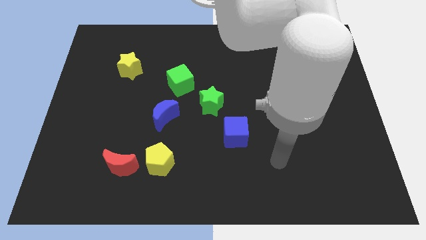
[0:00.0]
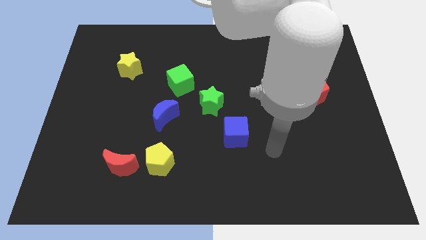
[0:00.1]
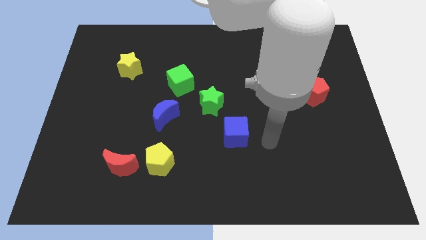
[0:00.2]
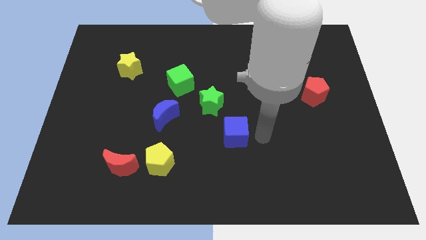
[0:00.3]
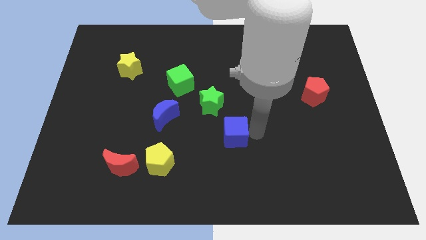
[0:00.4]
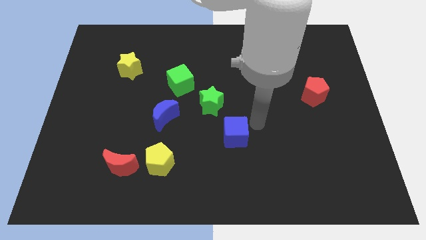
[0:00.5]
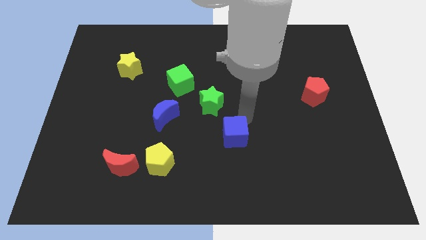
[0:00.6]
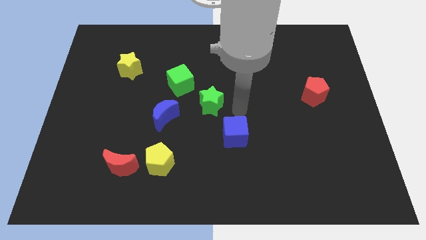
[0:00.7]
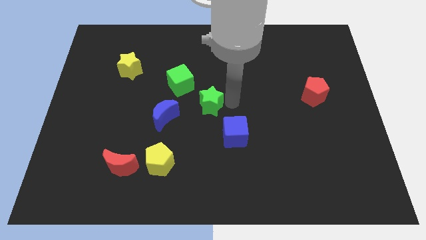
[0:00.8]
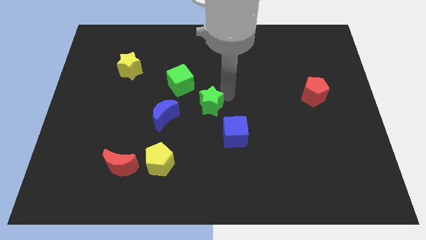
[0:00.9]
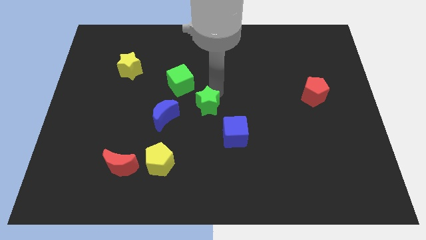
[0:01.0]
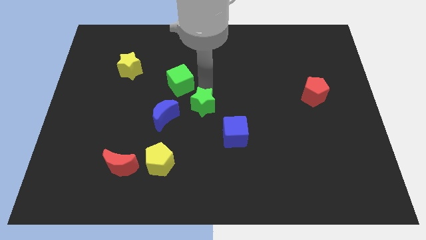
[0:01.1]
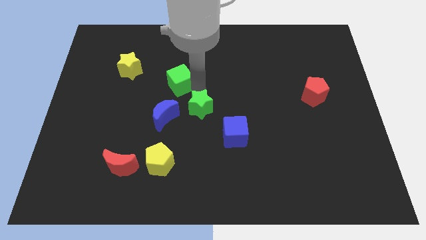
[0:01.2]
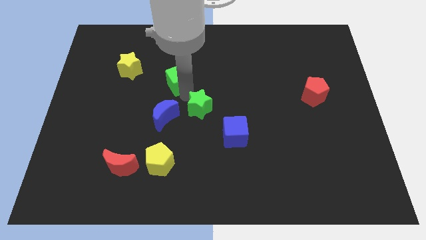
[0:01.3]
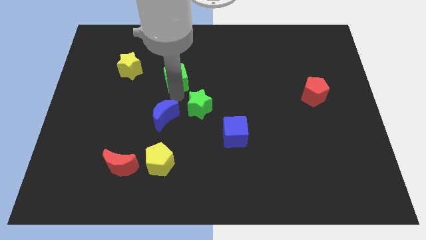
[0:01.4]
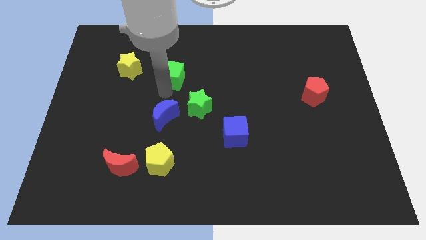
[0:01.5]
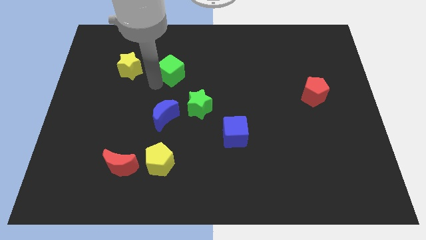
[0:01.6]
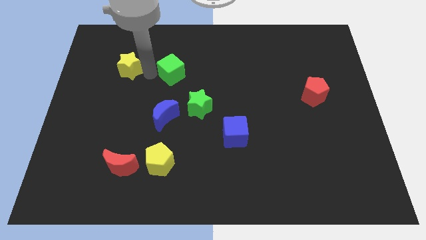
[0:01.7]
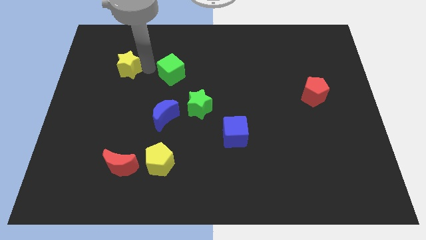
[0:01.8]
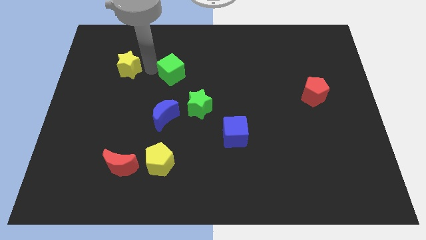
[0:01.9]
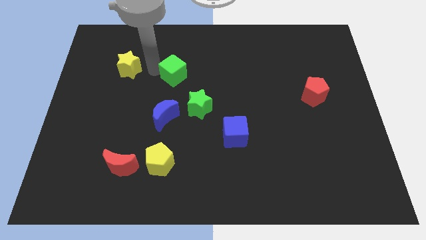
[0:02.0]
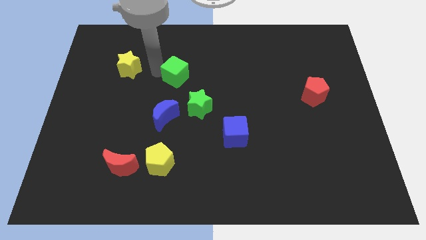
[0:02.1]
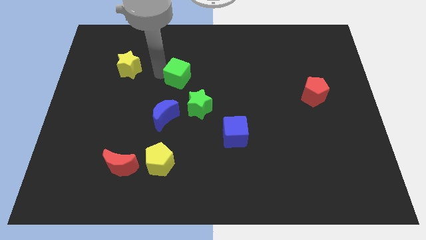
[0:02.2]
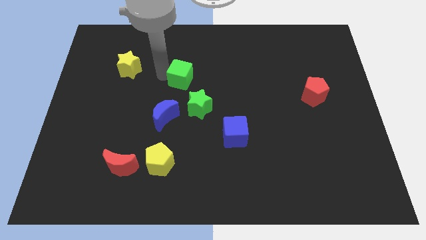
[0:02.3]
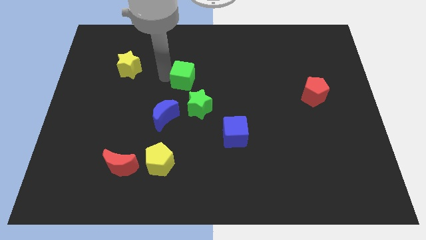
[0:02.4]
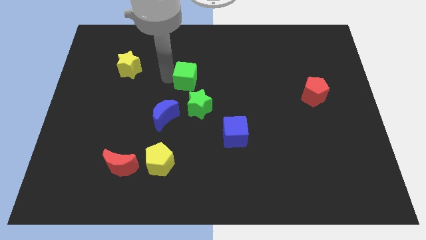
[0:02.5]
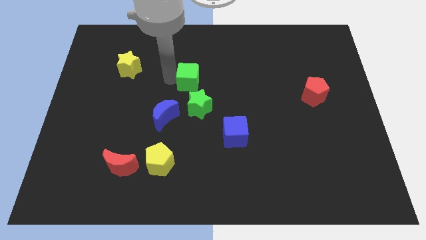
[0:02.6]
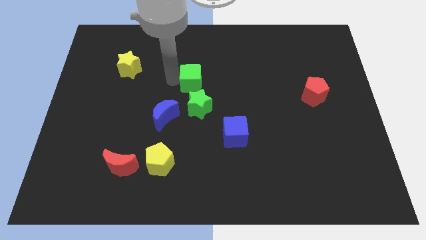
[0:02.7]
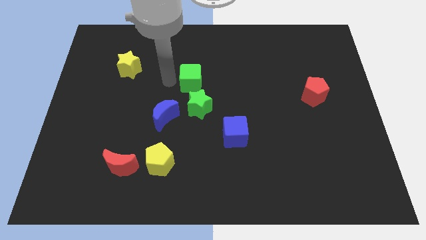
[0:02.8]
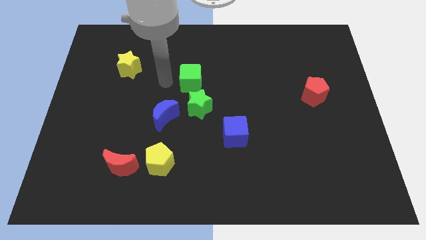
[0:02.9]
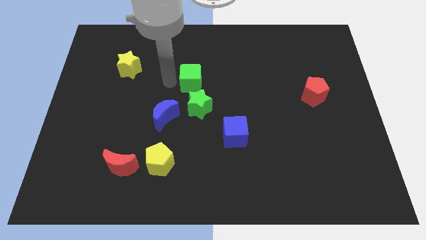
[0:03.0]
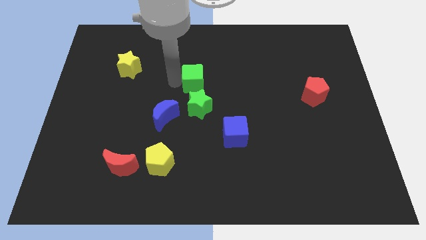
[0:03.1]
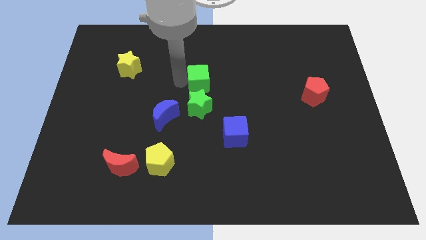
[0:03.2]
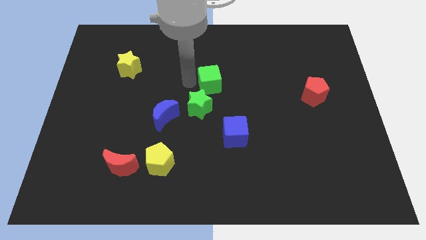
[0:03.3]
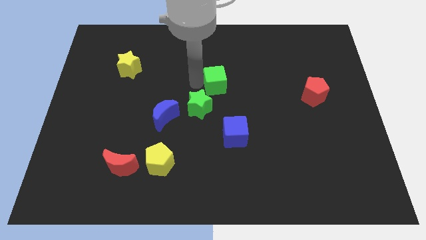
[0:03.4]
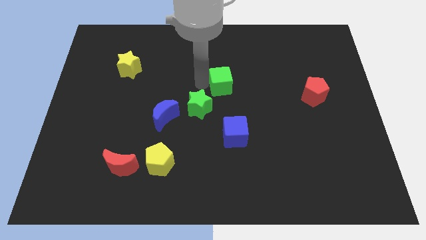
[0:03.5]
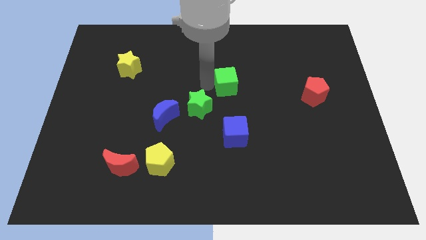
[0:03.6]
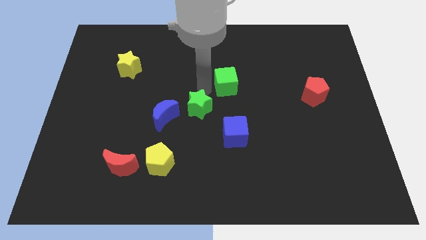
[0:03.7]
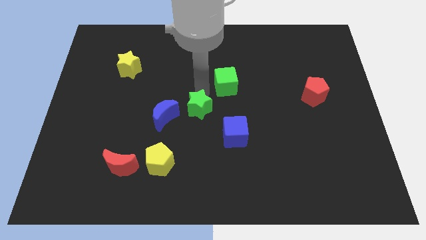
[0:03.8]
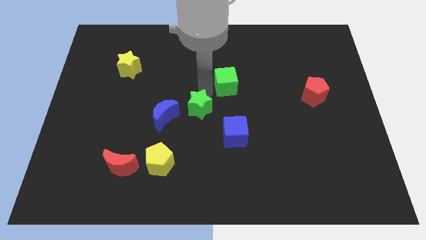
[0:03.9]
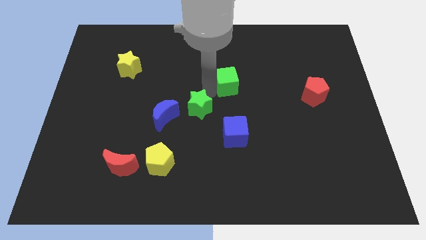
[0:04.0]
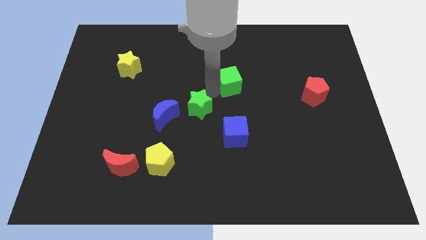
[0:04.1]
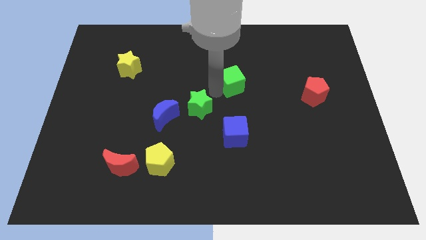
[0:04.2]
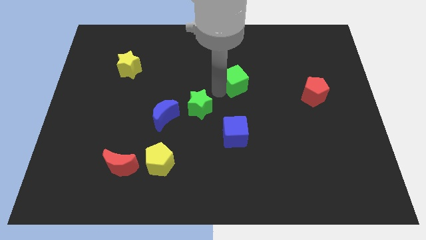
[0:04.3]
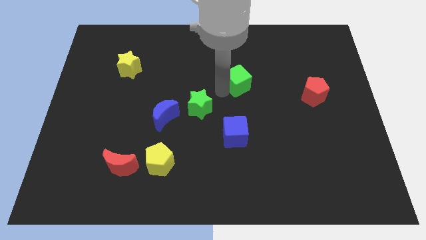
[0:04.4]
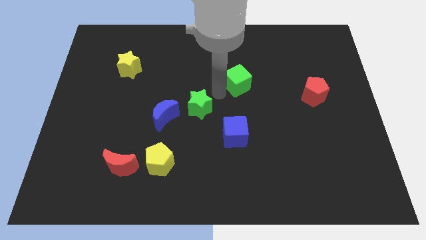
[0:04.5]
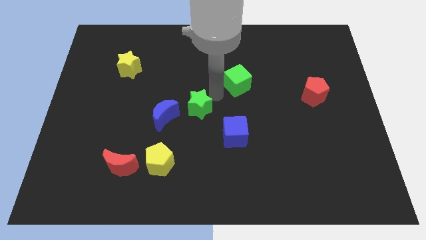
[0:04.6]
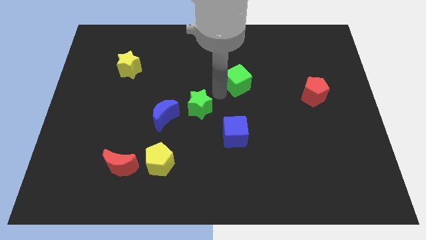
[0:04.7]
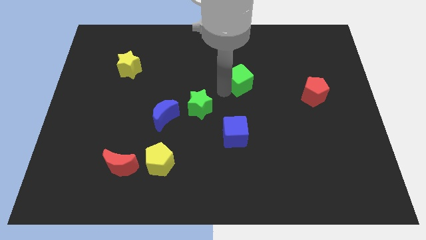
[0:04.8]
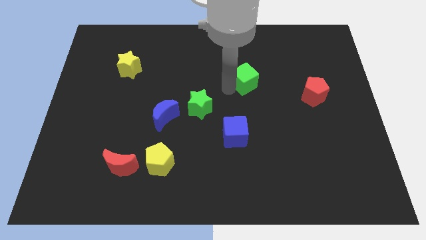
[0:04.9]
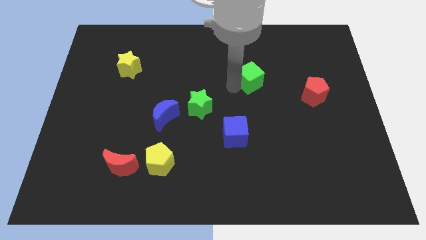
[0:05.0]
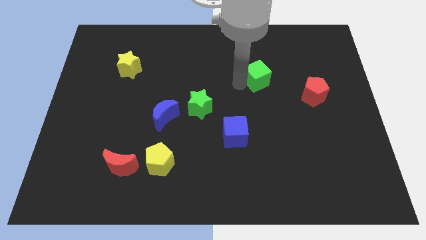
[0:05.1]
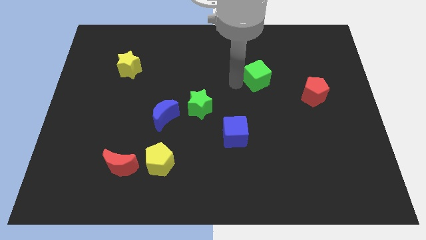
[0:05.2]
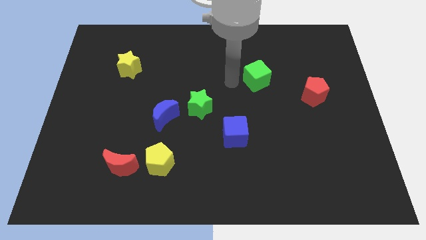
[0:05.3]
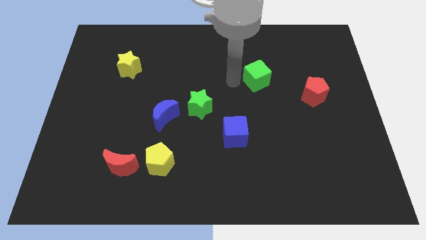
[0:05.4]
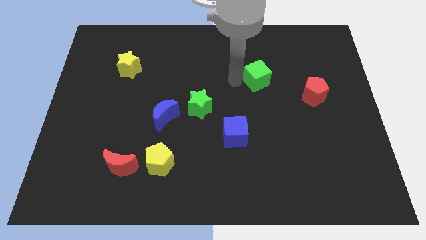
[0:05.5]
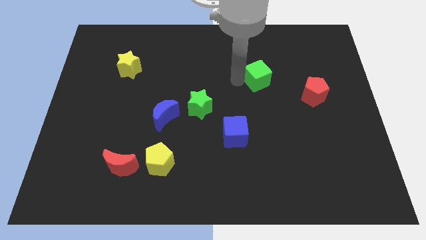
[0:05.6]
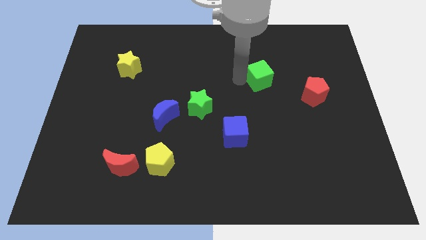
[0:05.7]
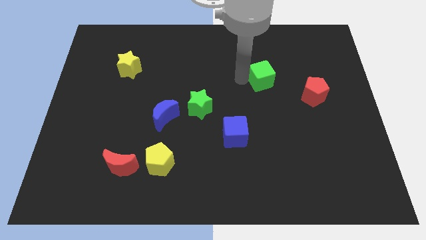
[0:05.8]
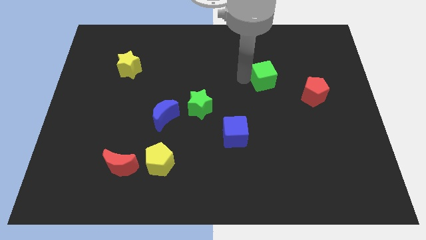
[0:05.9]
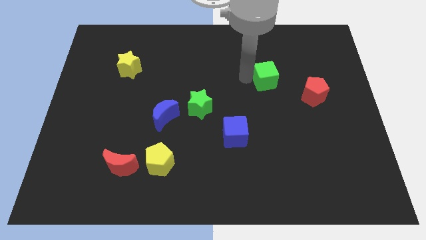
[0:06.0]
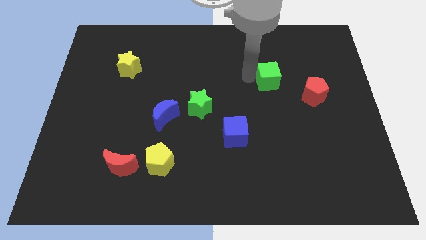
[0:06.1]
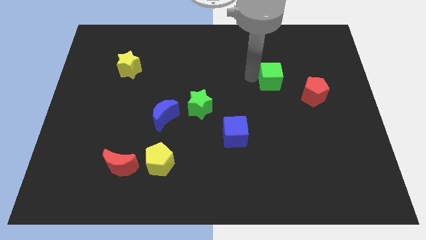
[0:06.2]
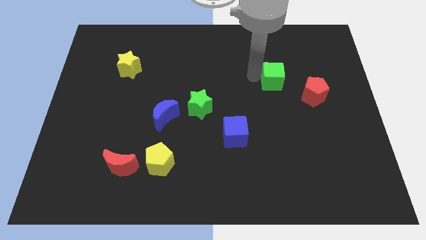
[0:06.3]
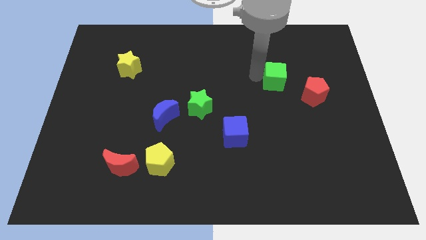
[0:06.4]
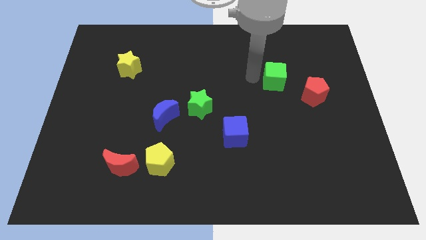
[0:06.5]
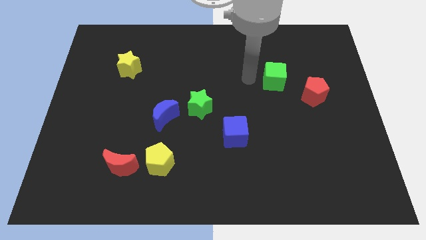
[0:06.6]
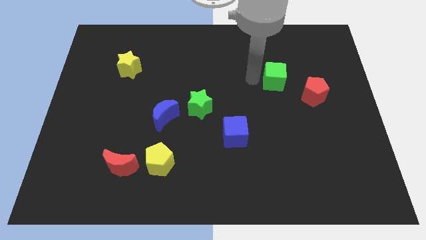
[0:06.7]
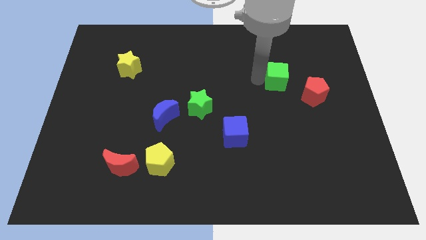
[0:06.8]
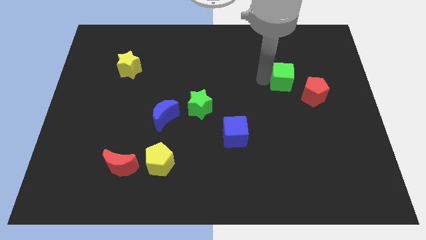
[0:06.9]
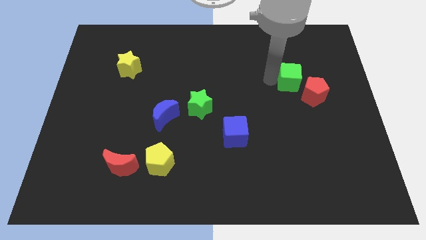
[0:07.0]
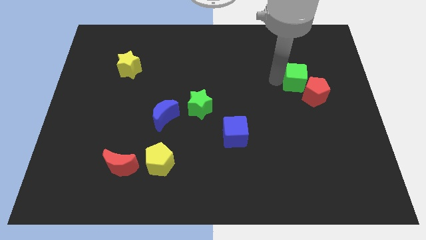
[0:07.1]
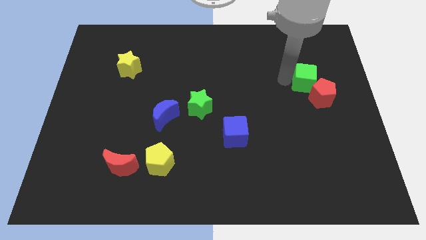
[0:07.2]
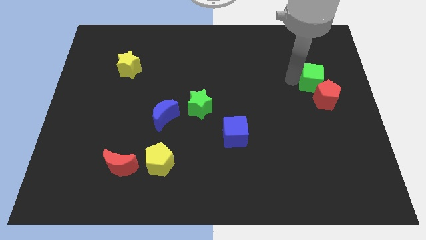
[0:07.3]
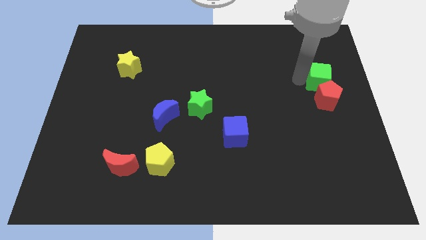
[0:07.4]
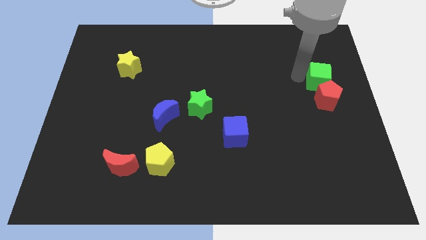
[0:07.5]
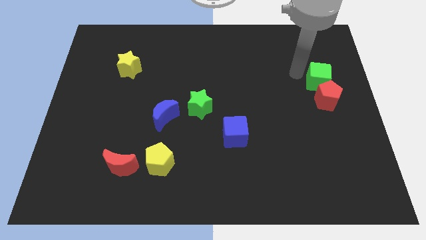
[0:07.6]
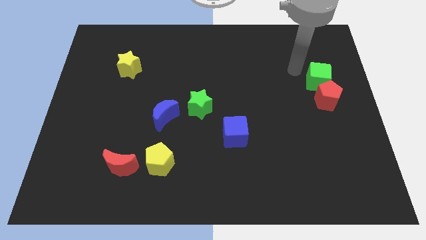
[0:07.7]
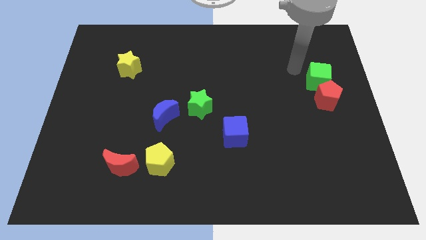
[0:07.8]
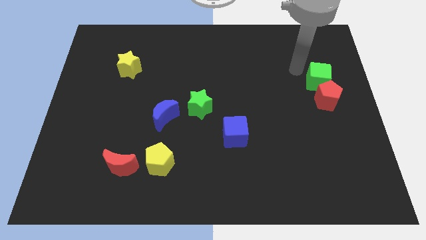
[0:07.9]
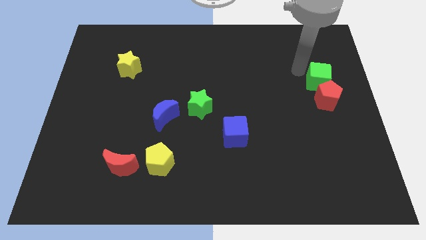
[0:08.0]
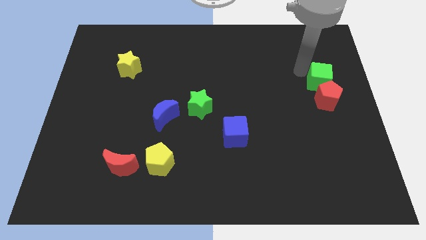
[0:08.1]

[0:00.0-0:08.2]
push the green cube to the right side of the board
